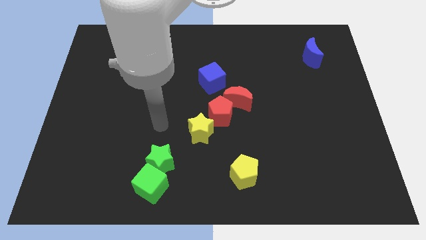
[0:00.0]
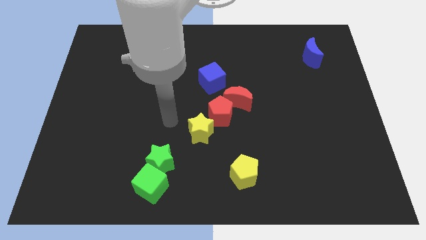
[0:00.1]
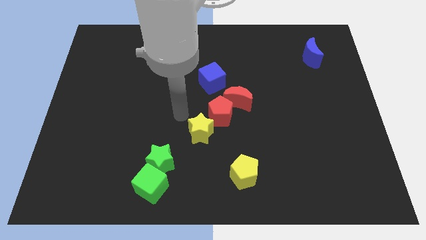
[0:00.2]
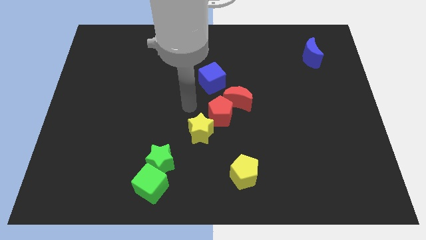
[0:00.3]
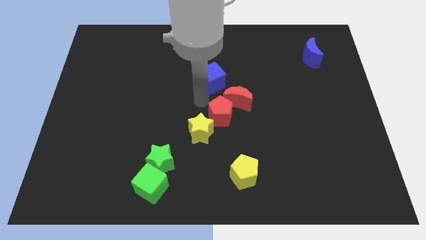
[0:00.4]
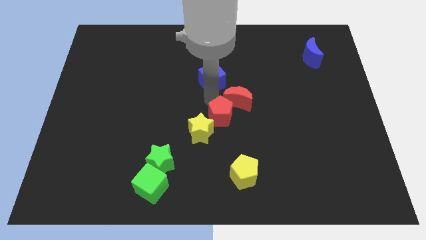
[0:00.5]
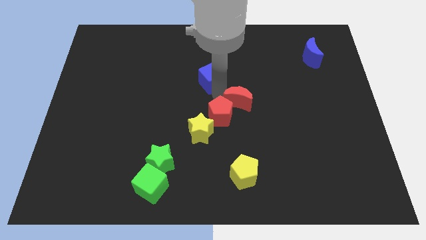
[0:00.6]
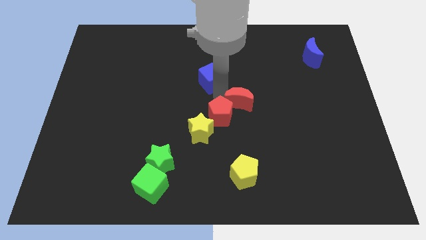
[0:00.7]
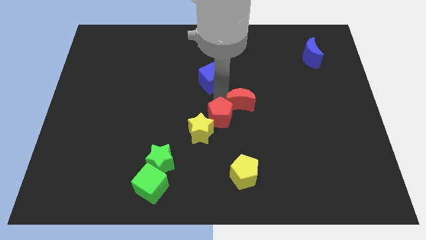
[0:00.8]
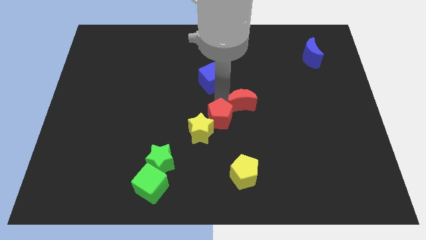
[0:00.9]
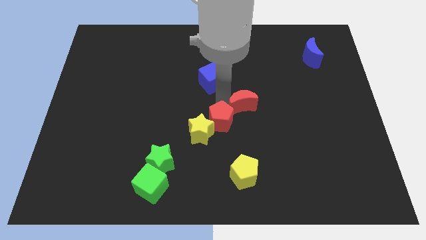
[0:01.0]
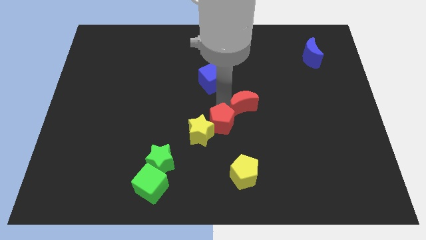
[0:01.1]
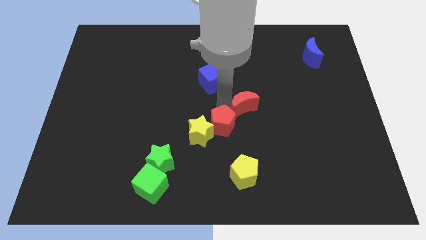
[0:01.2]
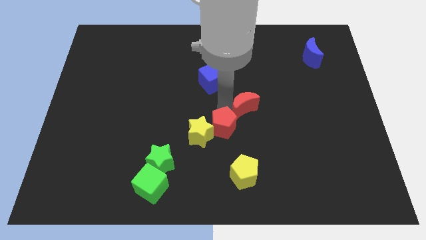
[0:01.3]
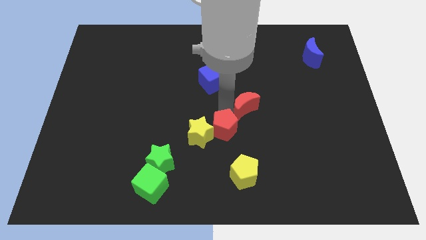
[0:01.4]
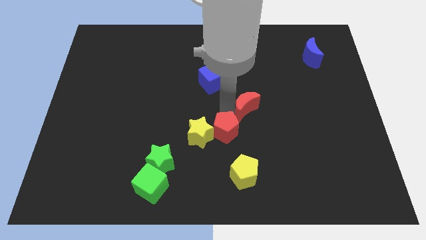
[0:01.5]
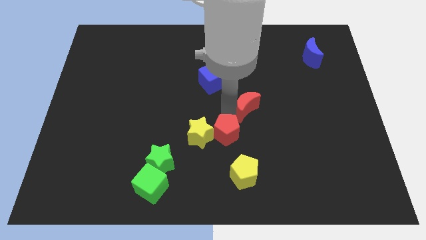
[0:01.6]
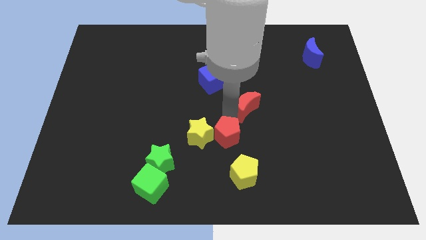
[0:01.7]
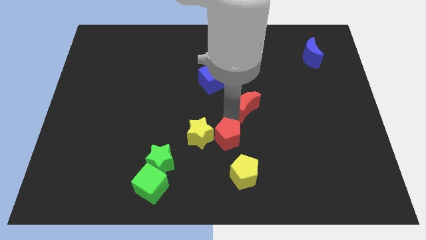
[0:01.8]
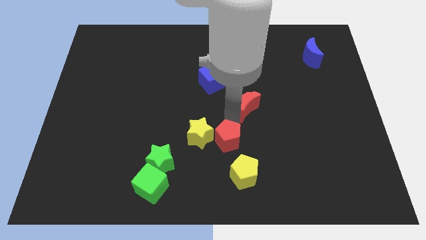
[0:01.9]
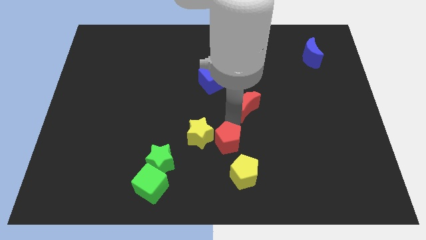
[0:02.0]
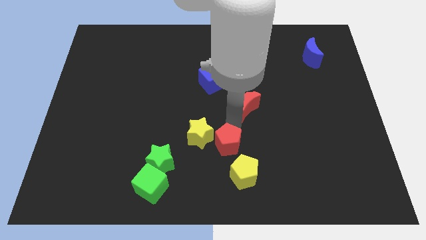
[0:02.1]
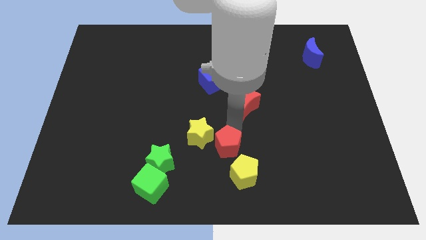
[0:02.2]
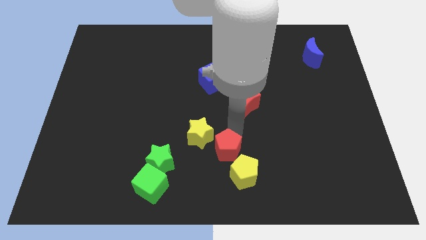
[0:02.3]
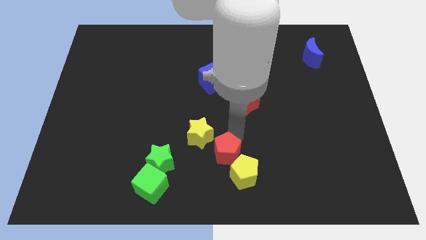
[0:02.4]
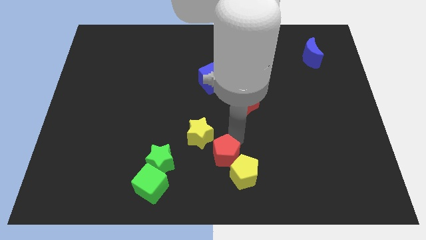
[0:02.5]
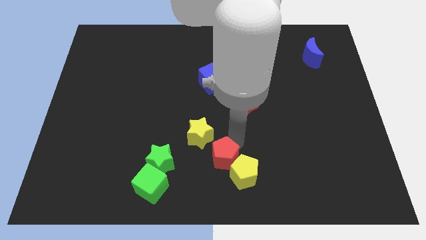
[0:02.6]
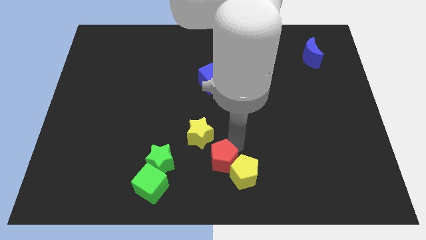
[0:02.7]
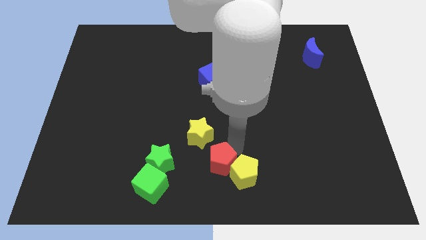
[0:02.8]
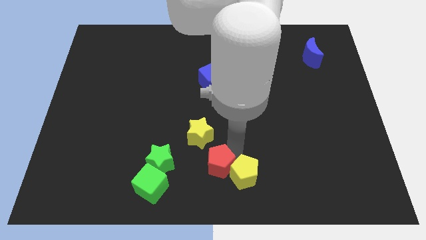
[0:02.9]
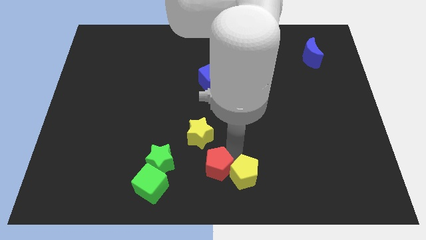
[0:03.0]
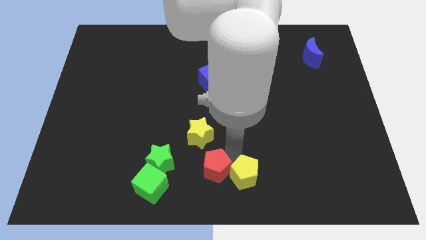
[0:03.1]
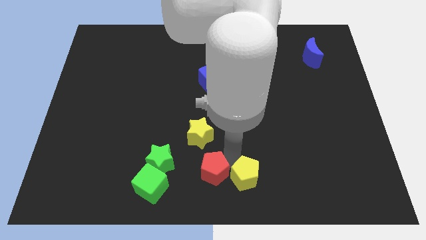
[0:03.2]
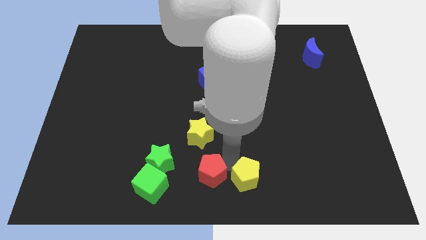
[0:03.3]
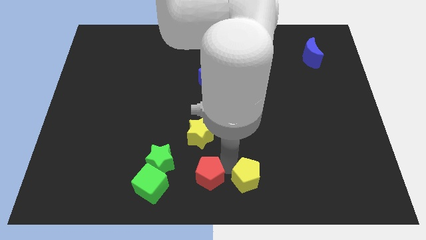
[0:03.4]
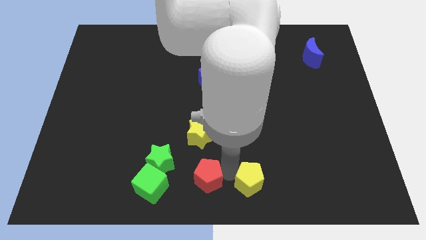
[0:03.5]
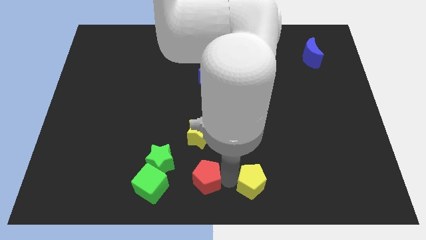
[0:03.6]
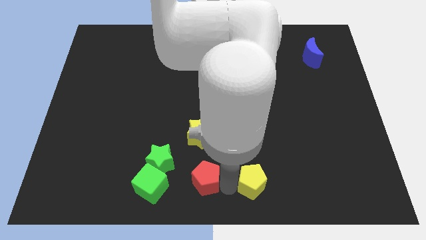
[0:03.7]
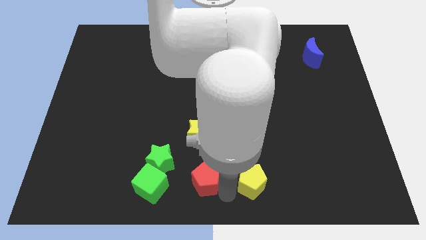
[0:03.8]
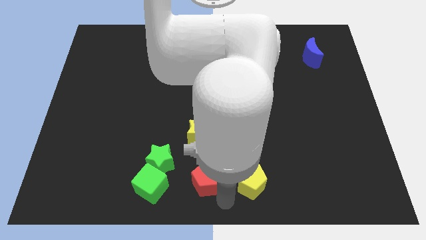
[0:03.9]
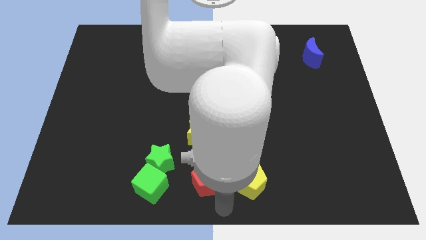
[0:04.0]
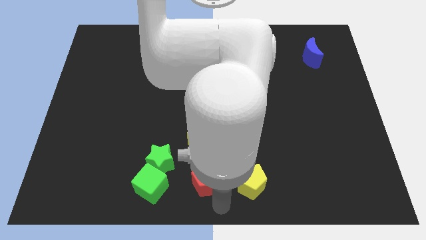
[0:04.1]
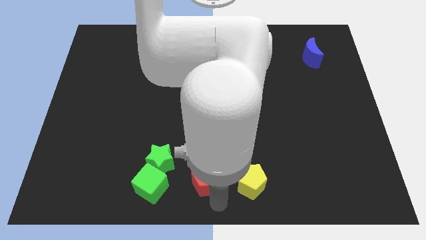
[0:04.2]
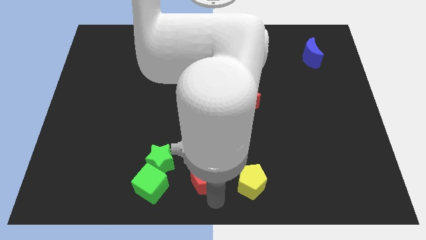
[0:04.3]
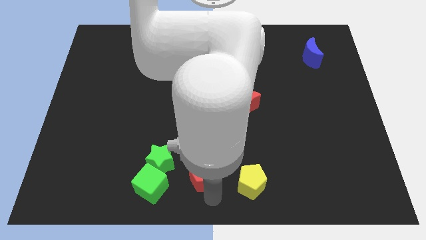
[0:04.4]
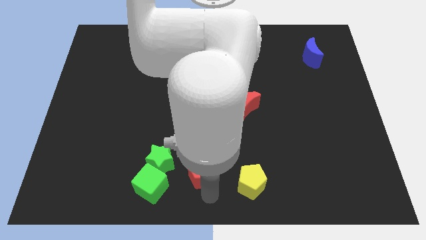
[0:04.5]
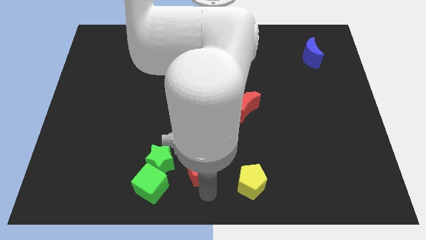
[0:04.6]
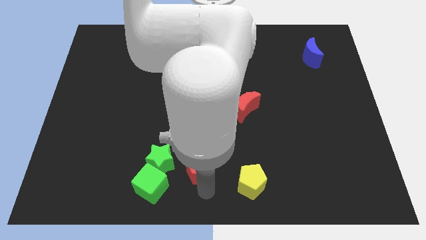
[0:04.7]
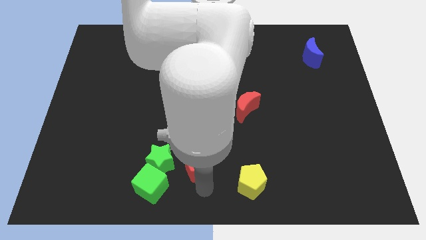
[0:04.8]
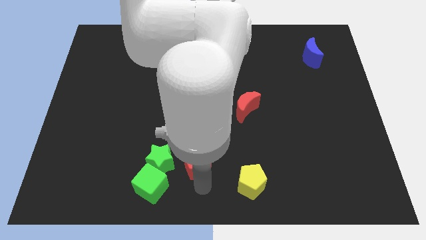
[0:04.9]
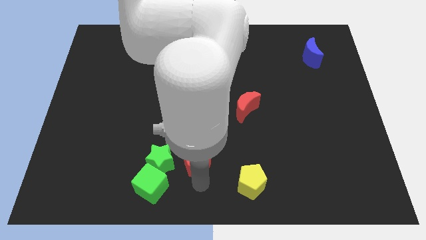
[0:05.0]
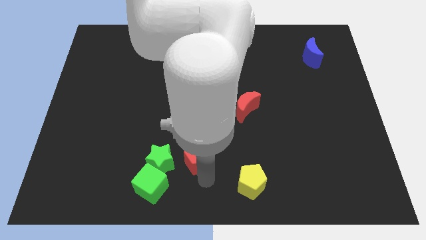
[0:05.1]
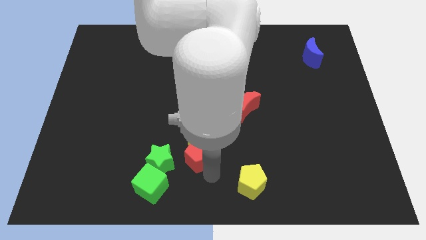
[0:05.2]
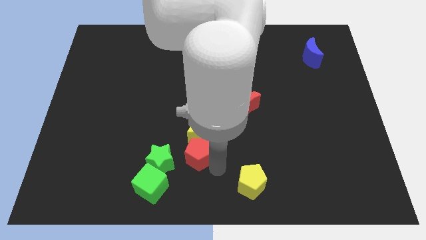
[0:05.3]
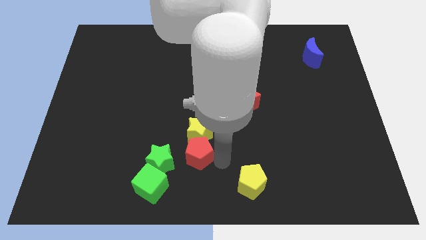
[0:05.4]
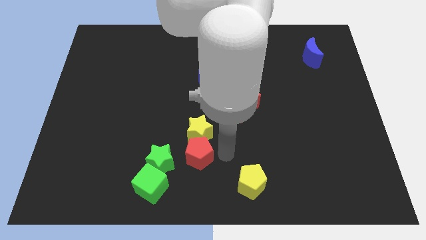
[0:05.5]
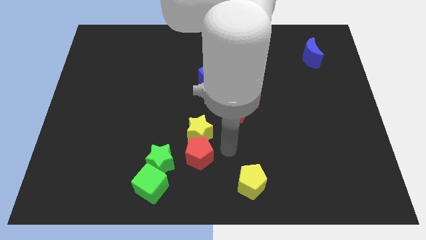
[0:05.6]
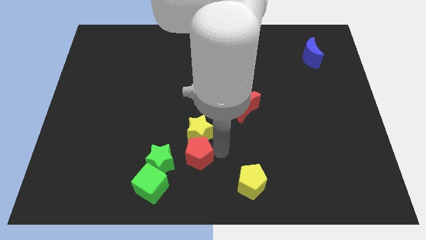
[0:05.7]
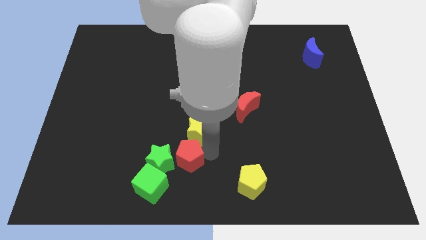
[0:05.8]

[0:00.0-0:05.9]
slide the red pentagon towards the green star

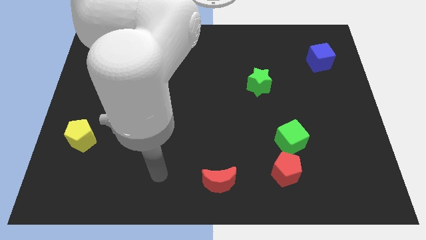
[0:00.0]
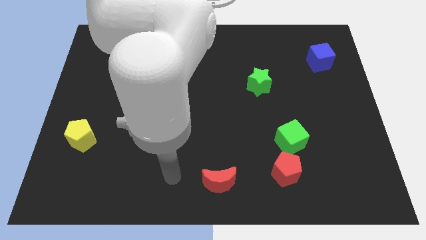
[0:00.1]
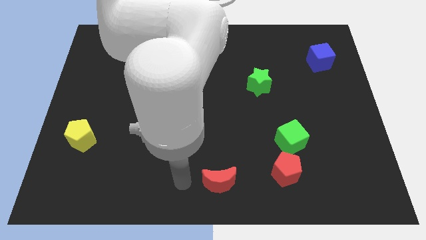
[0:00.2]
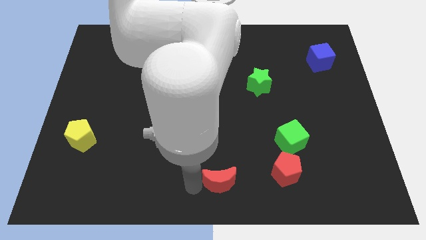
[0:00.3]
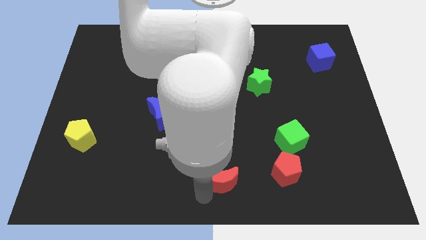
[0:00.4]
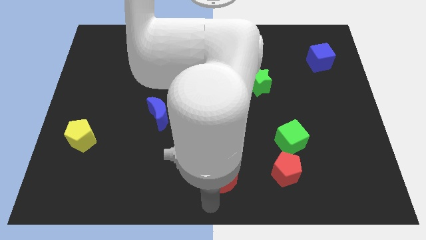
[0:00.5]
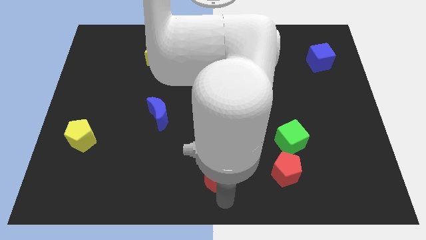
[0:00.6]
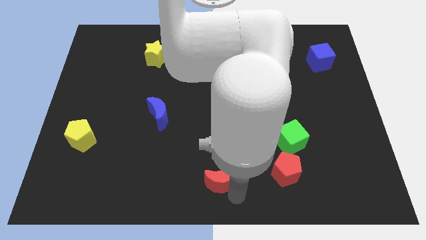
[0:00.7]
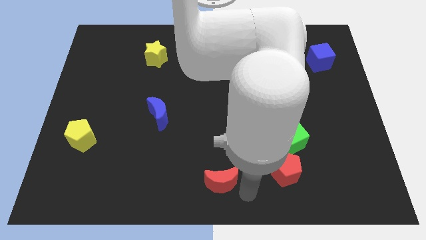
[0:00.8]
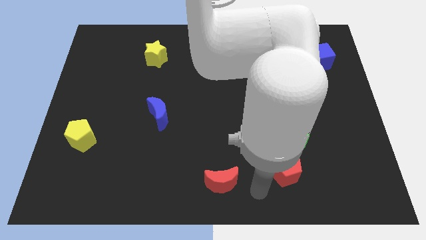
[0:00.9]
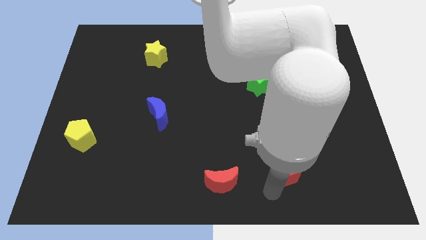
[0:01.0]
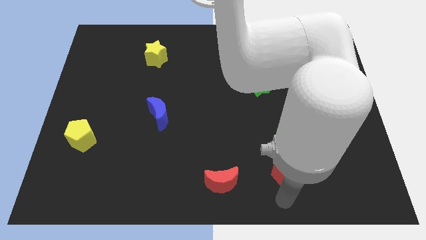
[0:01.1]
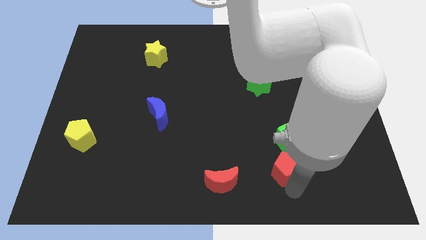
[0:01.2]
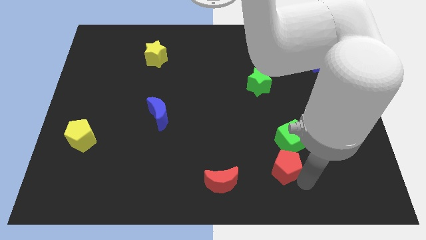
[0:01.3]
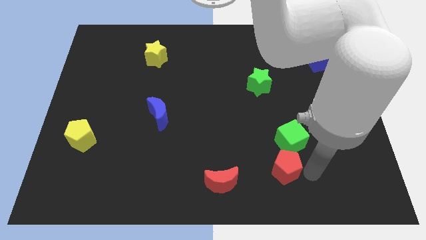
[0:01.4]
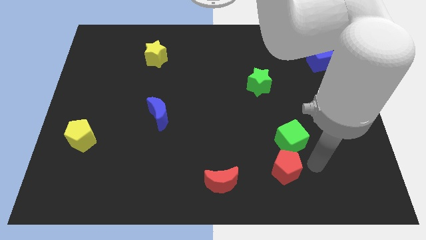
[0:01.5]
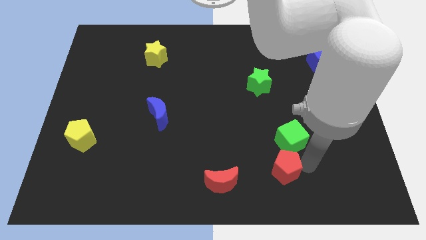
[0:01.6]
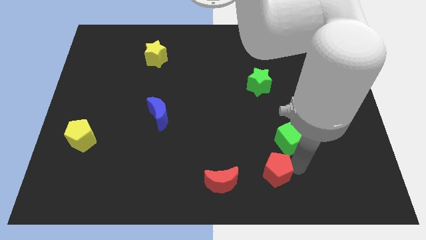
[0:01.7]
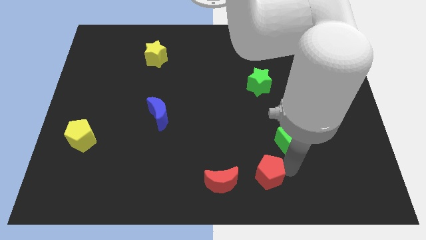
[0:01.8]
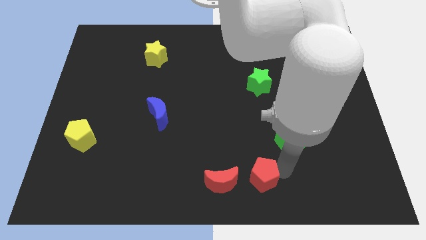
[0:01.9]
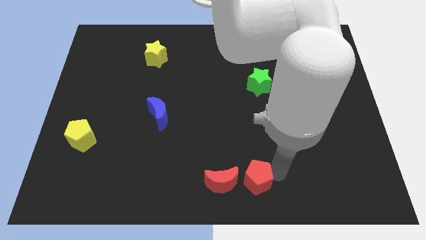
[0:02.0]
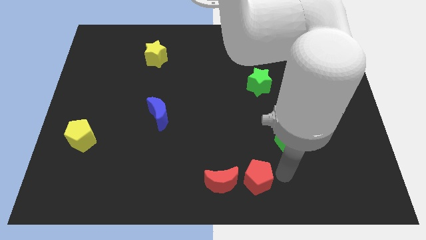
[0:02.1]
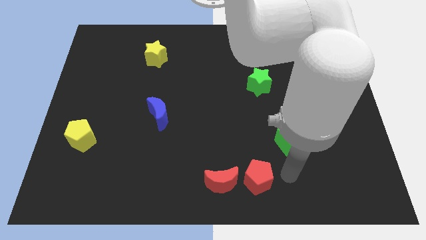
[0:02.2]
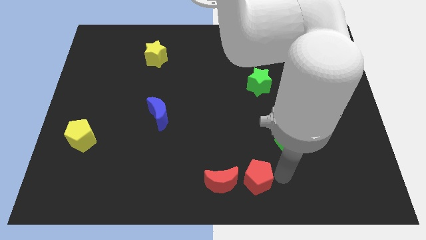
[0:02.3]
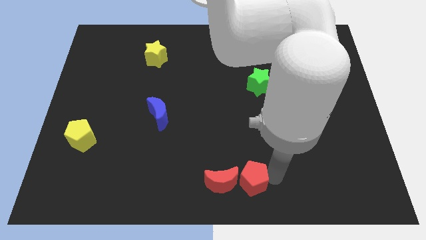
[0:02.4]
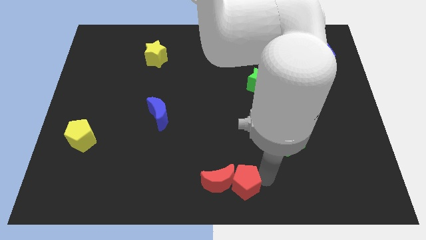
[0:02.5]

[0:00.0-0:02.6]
move the red pentagon next to the red moon
